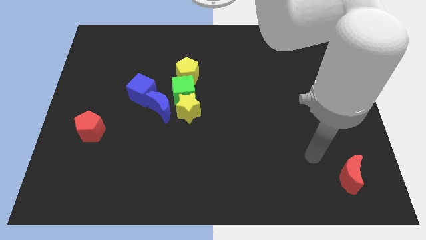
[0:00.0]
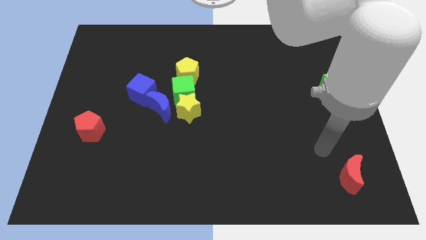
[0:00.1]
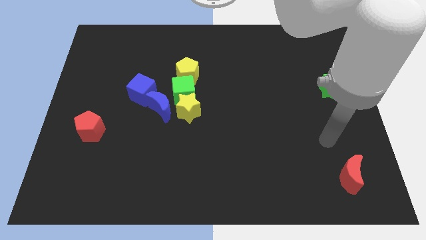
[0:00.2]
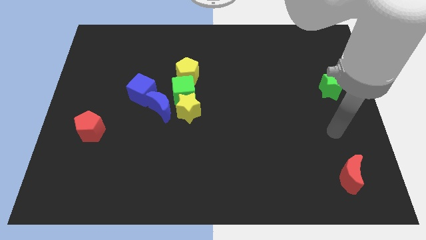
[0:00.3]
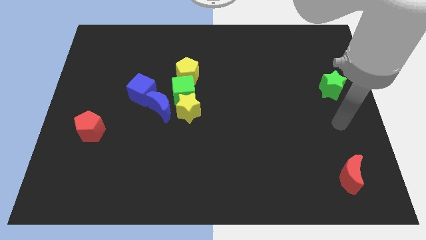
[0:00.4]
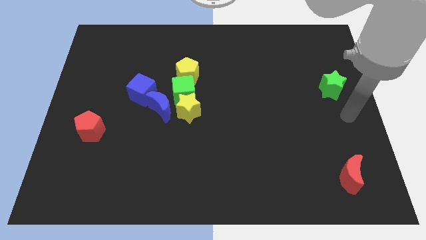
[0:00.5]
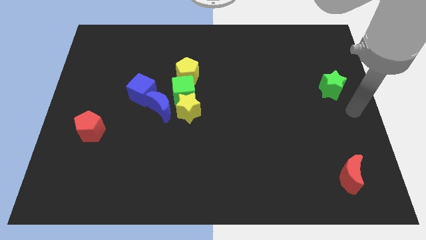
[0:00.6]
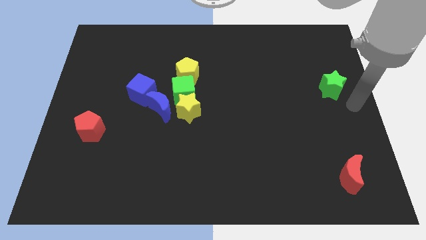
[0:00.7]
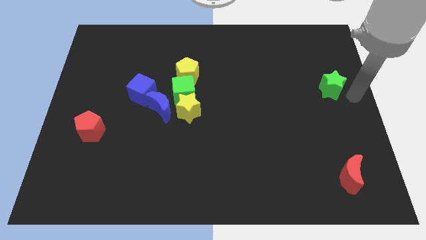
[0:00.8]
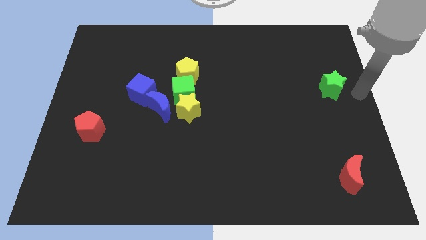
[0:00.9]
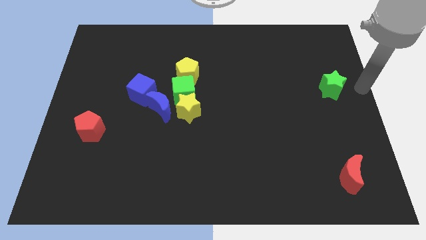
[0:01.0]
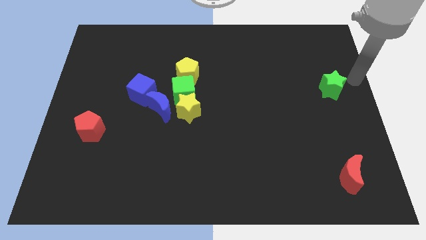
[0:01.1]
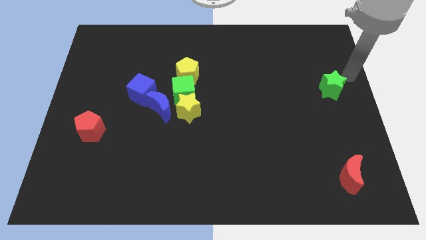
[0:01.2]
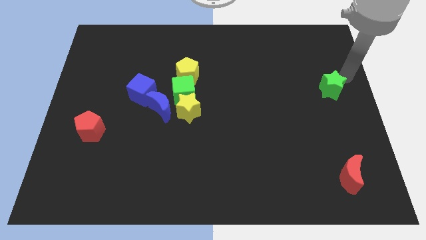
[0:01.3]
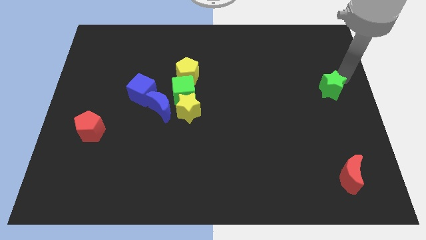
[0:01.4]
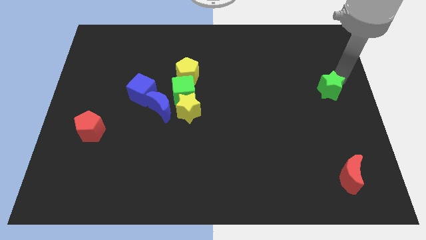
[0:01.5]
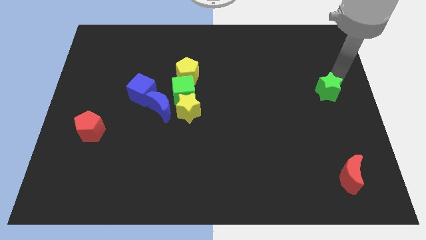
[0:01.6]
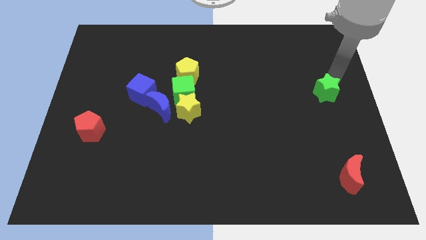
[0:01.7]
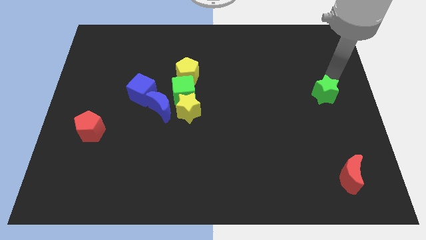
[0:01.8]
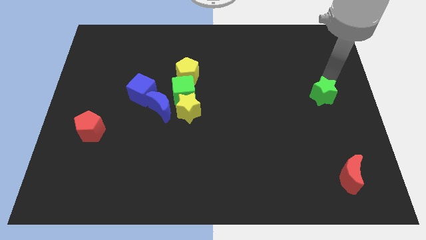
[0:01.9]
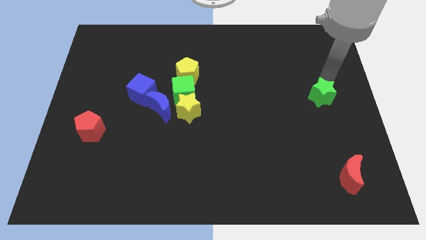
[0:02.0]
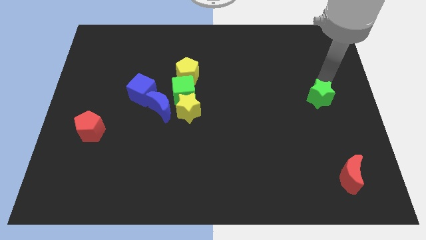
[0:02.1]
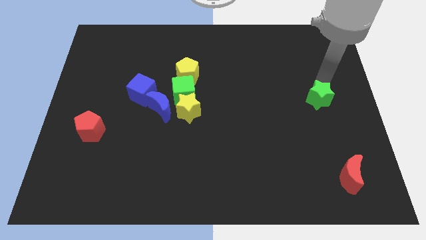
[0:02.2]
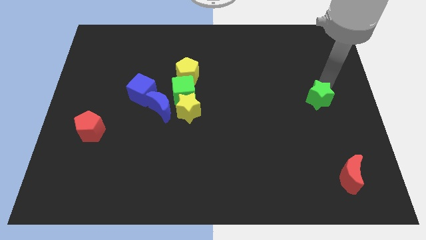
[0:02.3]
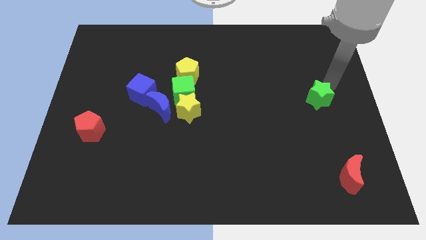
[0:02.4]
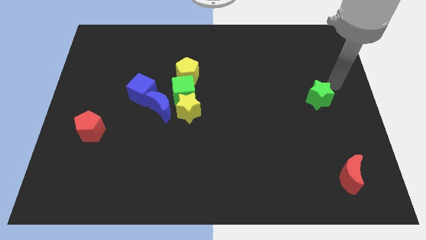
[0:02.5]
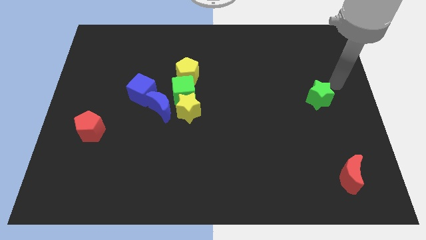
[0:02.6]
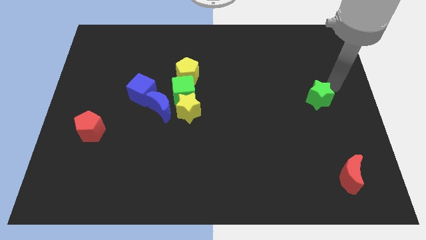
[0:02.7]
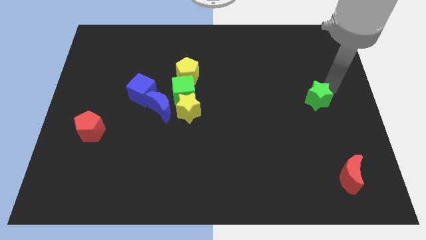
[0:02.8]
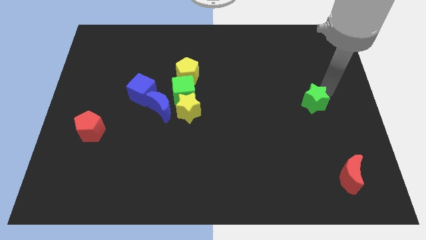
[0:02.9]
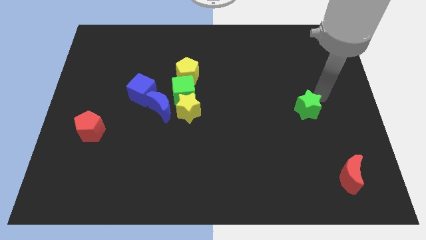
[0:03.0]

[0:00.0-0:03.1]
slightly slide the green star diagonally downwards and to the left

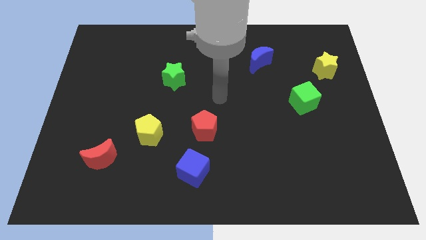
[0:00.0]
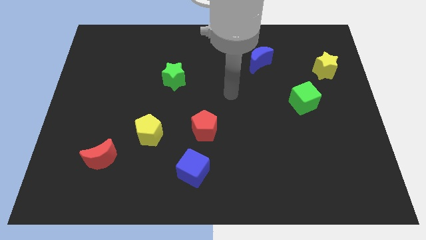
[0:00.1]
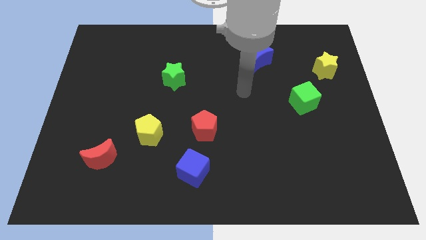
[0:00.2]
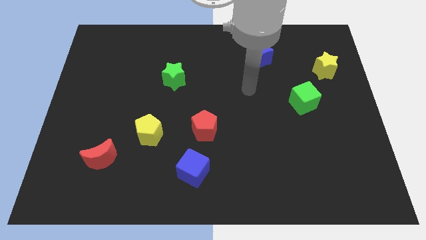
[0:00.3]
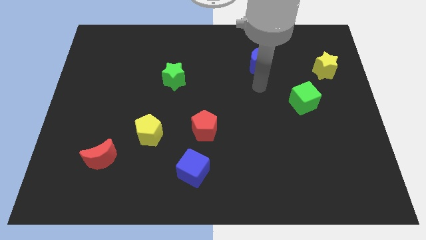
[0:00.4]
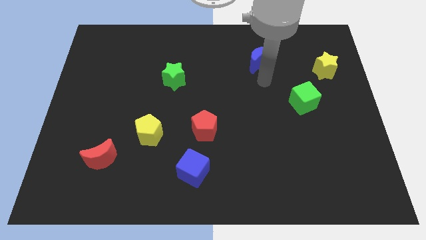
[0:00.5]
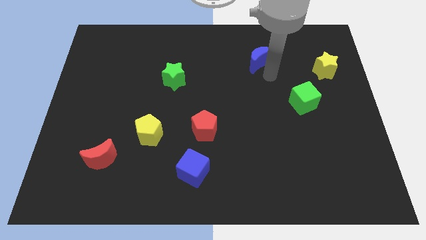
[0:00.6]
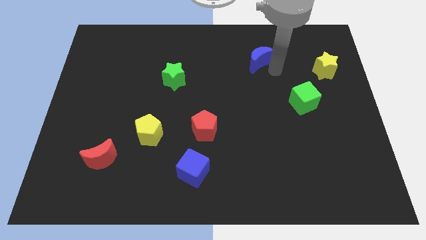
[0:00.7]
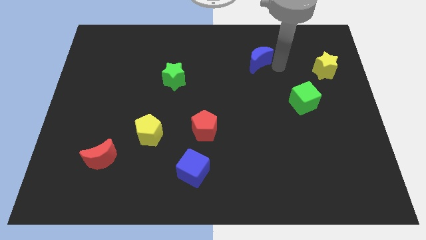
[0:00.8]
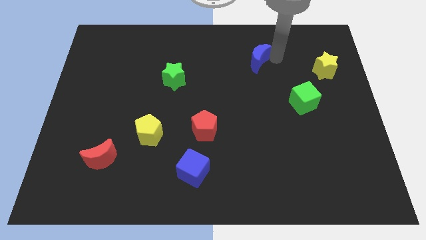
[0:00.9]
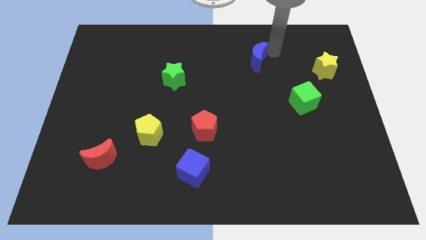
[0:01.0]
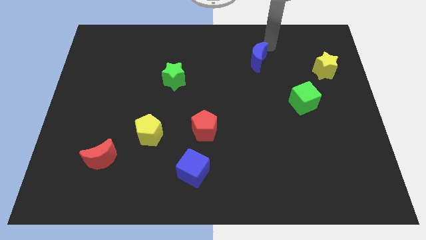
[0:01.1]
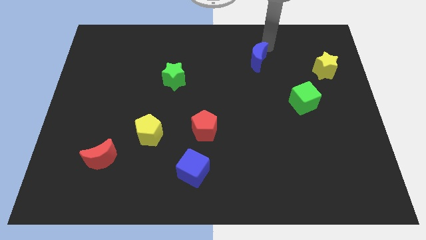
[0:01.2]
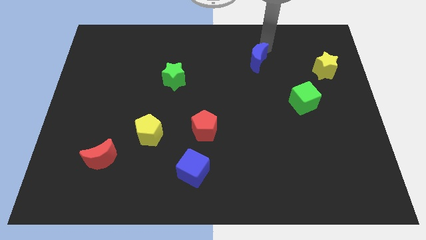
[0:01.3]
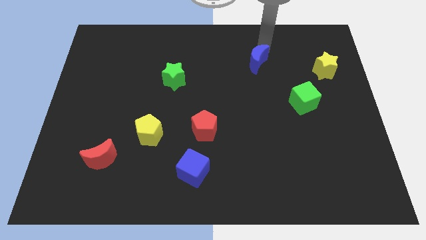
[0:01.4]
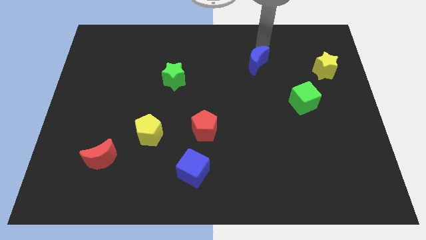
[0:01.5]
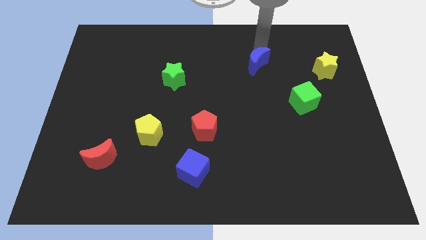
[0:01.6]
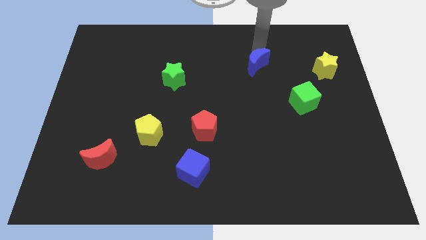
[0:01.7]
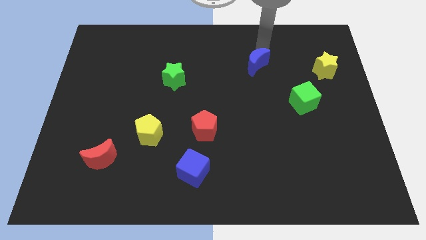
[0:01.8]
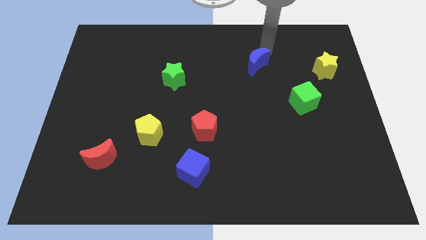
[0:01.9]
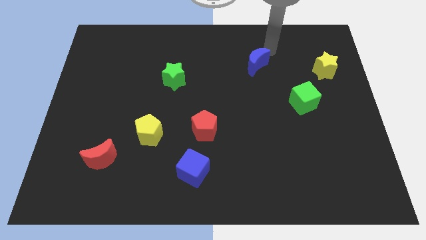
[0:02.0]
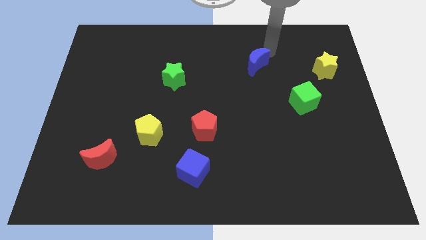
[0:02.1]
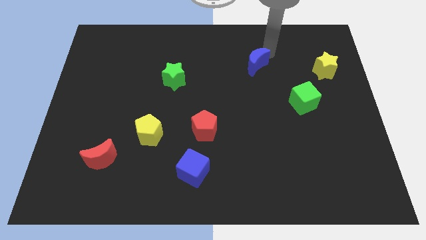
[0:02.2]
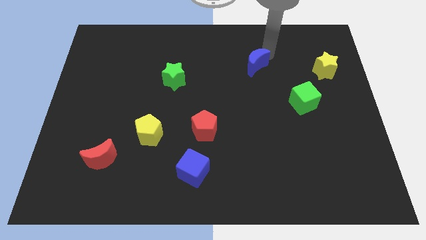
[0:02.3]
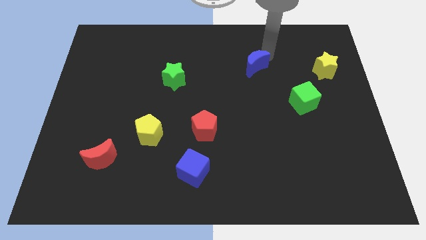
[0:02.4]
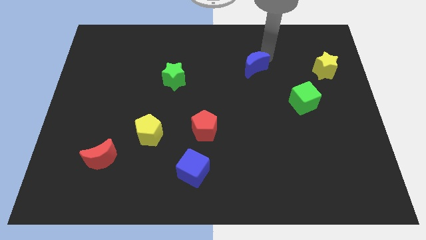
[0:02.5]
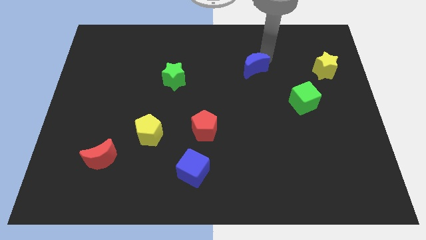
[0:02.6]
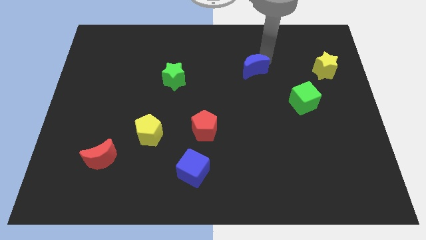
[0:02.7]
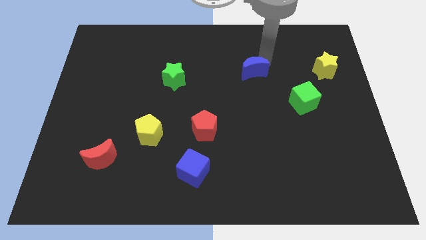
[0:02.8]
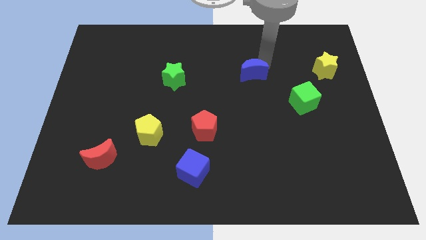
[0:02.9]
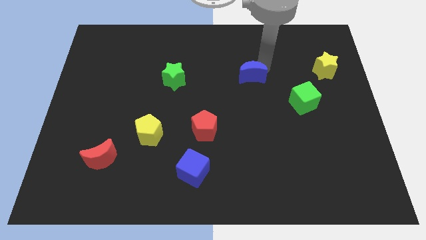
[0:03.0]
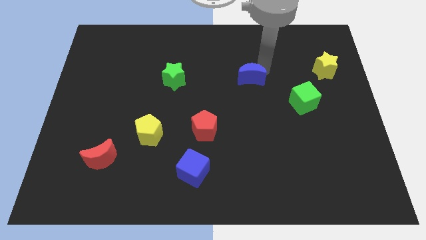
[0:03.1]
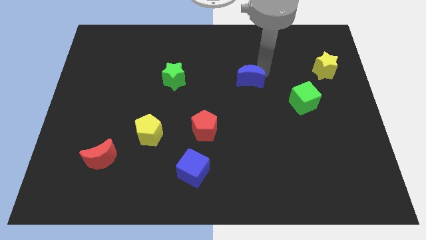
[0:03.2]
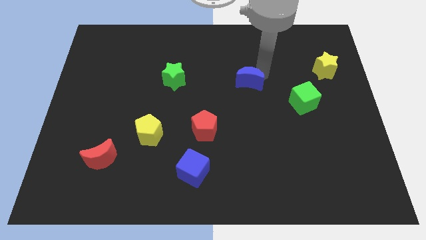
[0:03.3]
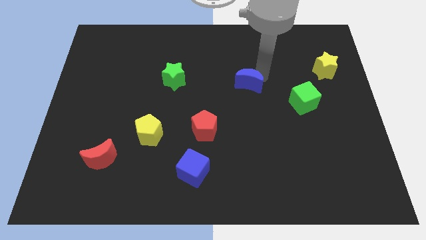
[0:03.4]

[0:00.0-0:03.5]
push the blue moon down and then to the left a little

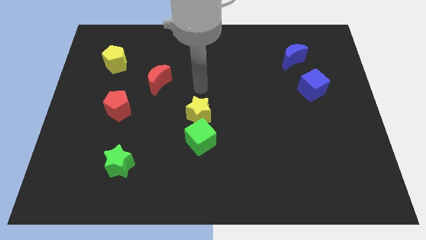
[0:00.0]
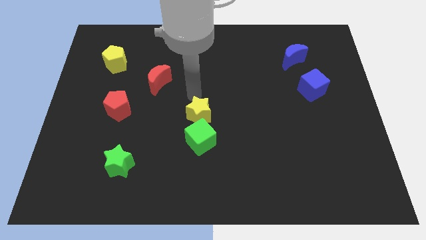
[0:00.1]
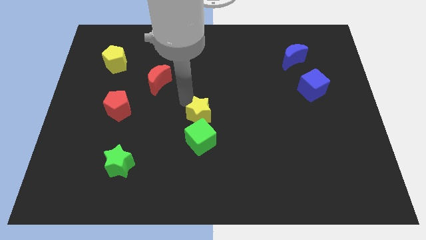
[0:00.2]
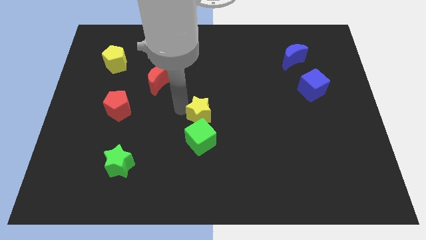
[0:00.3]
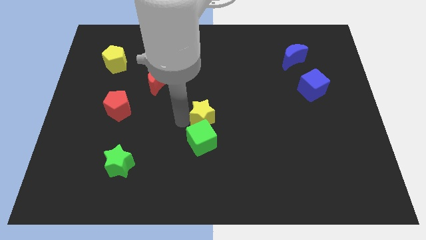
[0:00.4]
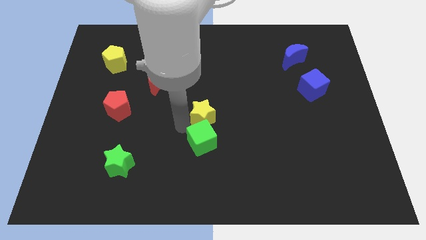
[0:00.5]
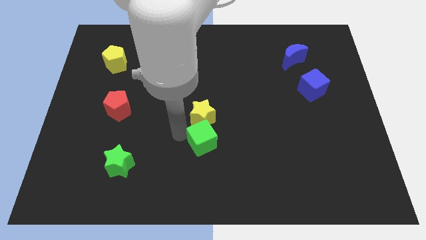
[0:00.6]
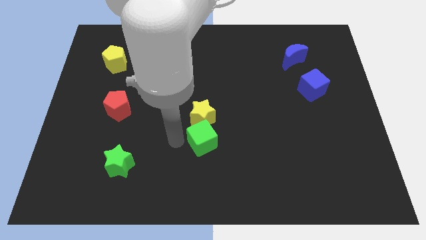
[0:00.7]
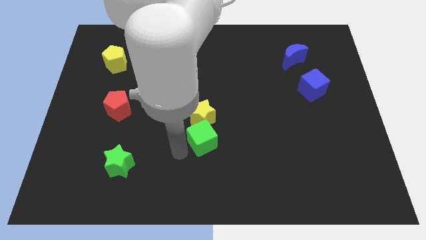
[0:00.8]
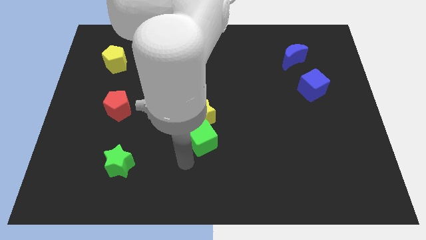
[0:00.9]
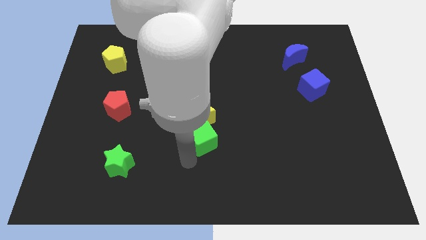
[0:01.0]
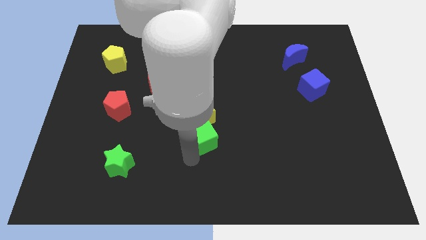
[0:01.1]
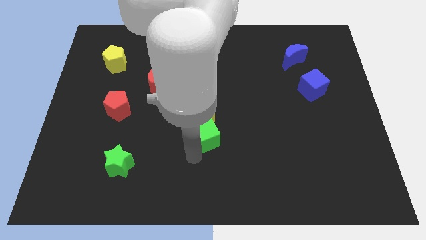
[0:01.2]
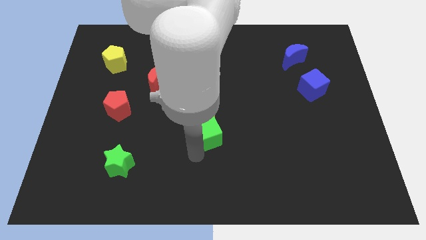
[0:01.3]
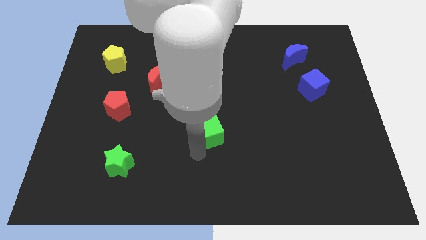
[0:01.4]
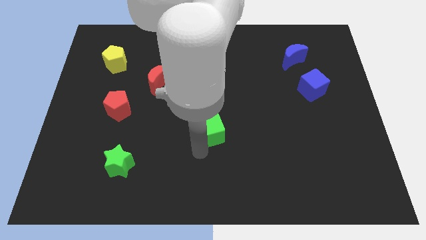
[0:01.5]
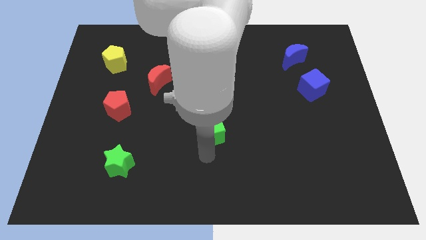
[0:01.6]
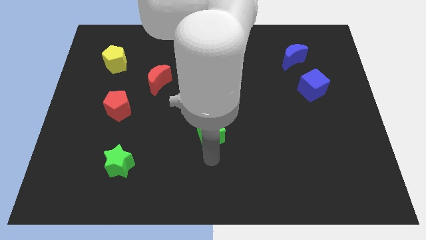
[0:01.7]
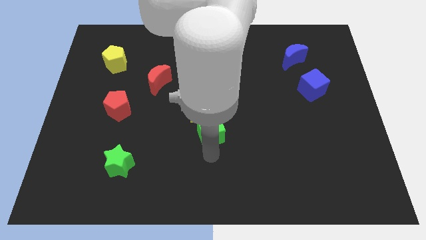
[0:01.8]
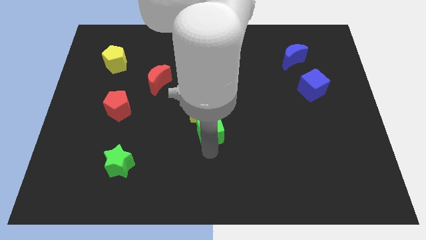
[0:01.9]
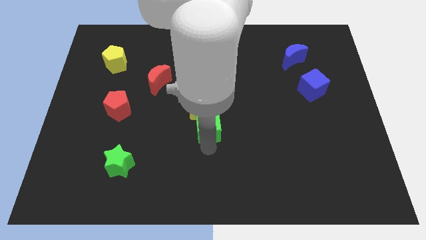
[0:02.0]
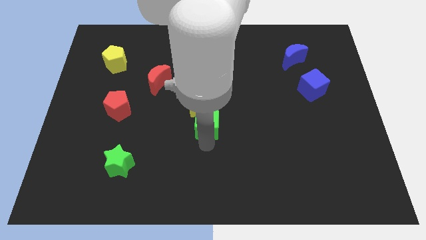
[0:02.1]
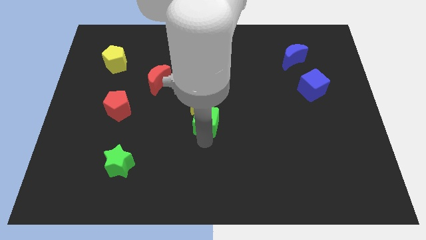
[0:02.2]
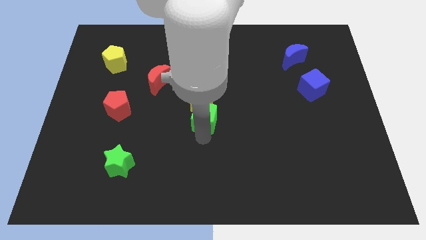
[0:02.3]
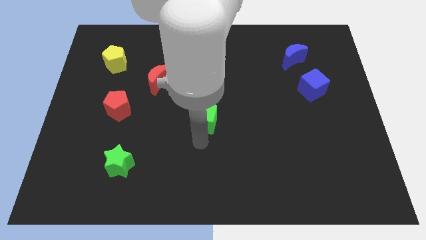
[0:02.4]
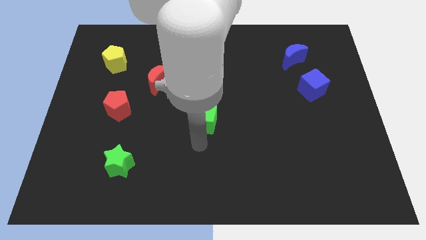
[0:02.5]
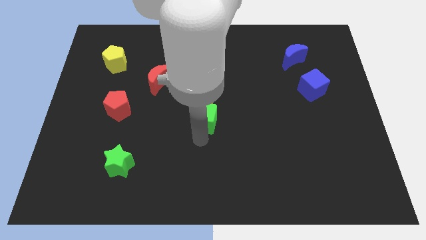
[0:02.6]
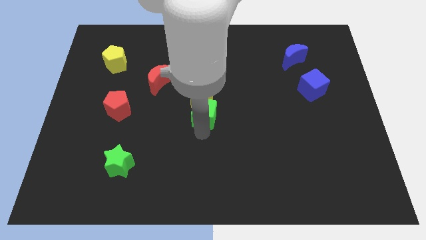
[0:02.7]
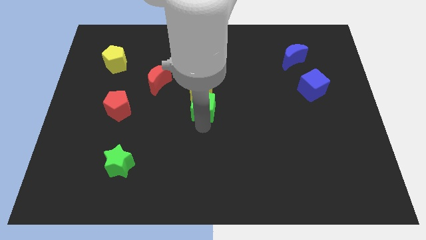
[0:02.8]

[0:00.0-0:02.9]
slide the green cube up somewhat
